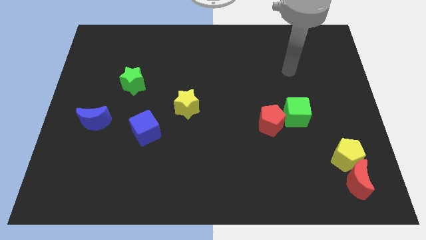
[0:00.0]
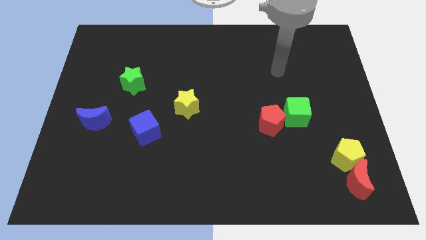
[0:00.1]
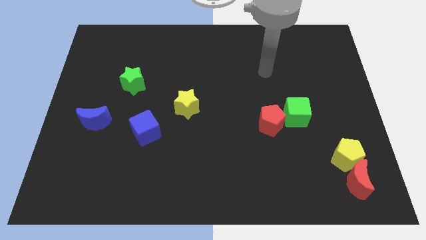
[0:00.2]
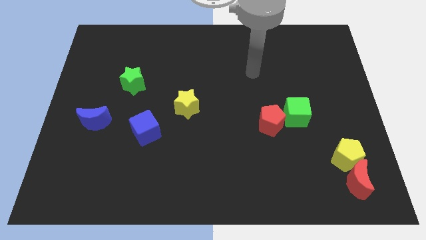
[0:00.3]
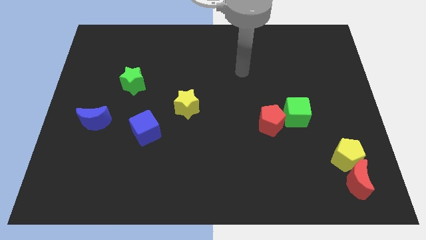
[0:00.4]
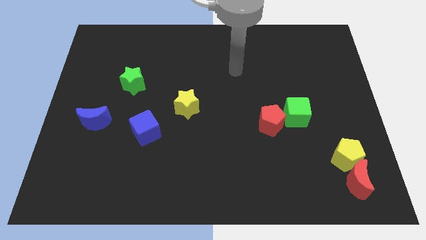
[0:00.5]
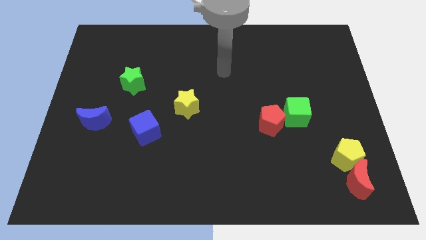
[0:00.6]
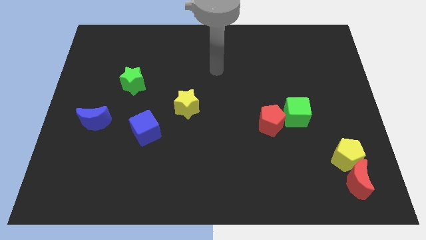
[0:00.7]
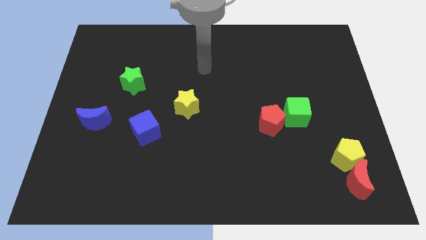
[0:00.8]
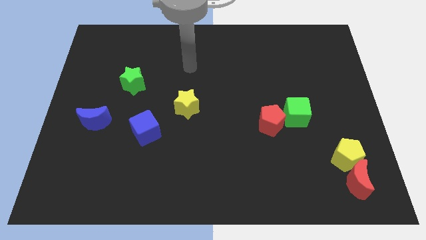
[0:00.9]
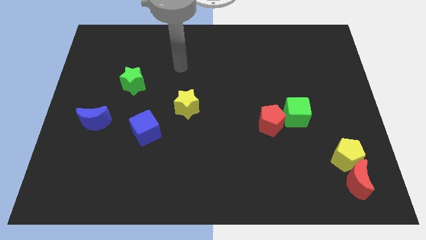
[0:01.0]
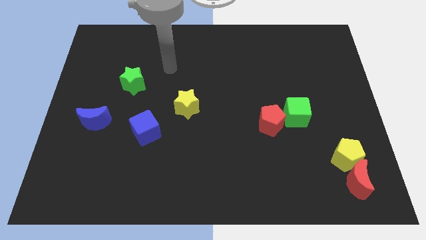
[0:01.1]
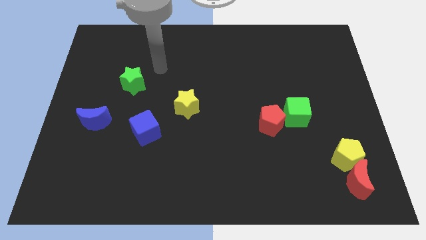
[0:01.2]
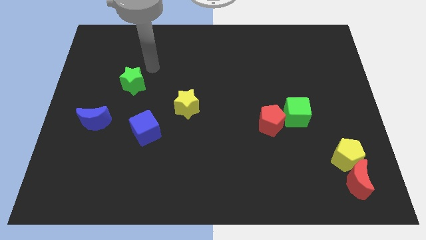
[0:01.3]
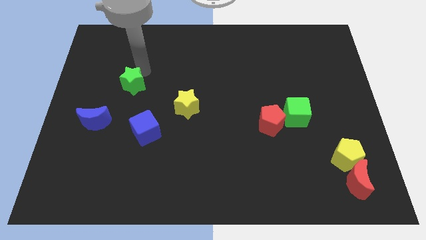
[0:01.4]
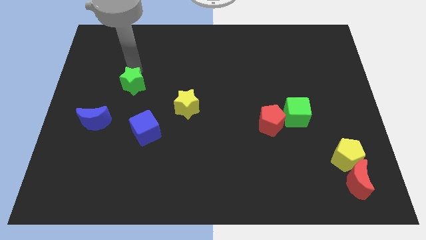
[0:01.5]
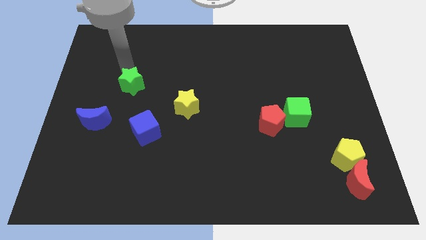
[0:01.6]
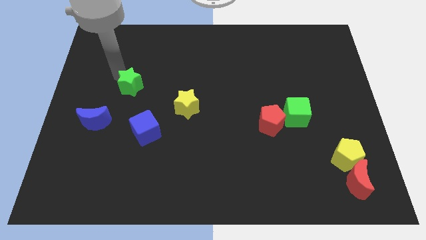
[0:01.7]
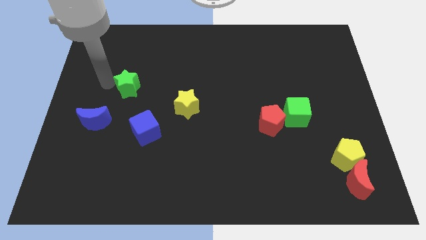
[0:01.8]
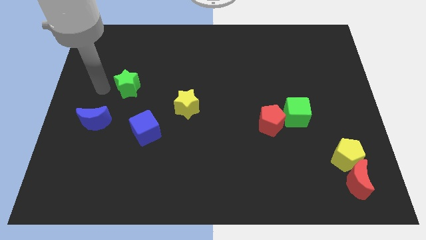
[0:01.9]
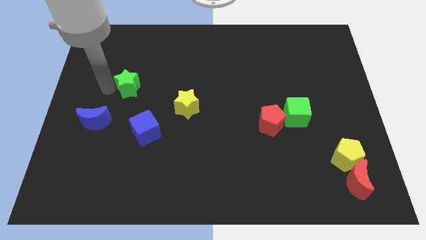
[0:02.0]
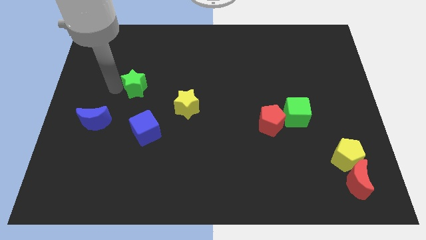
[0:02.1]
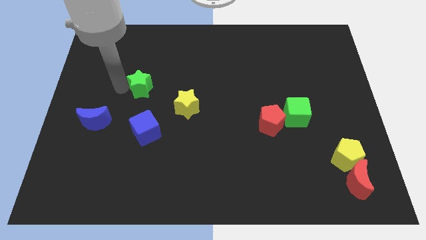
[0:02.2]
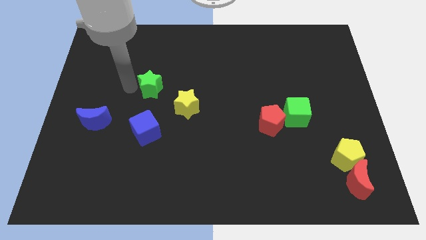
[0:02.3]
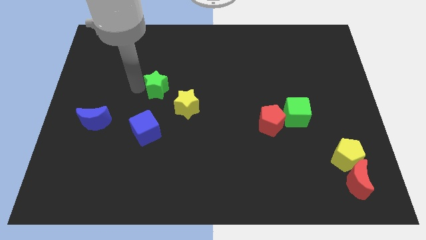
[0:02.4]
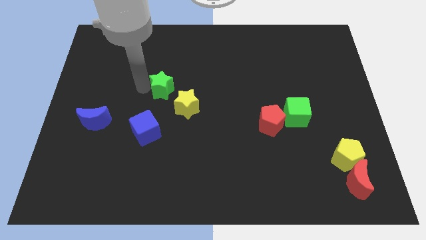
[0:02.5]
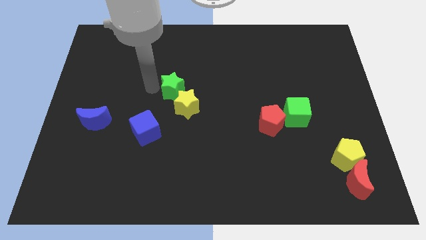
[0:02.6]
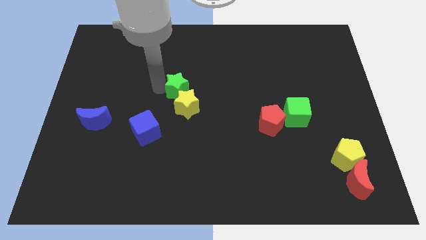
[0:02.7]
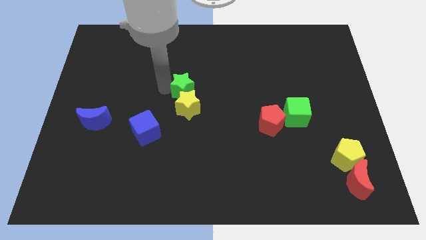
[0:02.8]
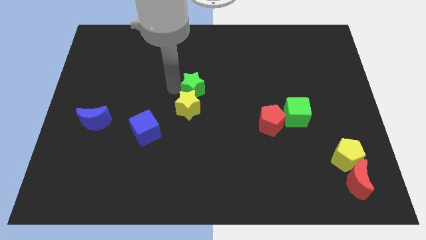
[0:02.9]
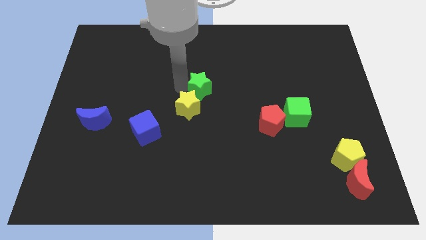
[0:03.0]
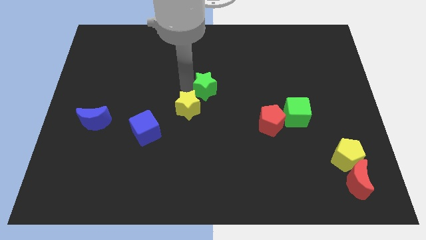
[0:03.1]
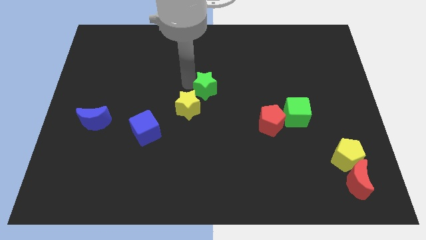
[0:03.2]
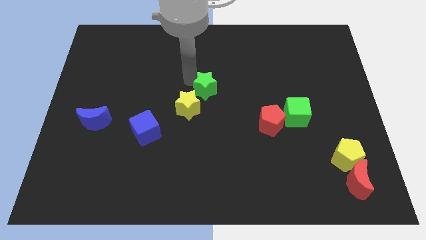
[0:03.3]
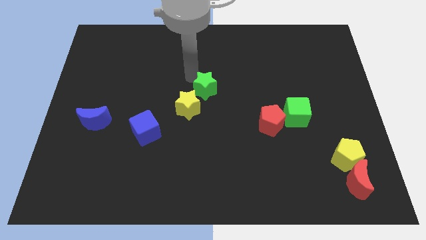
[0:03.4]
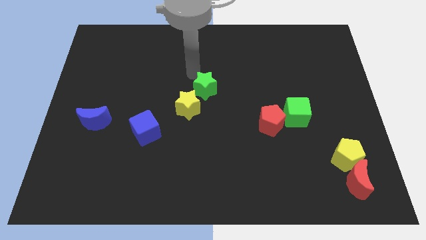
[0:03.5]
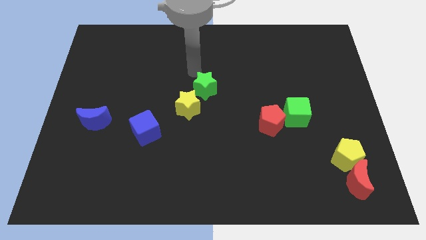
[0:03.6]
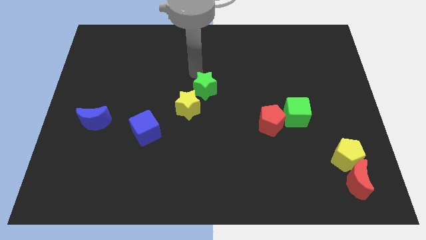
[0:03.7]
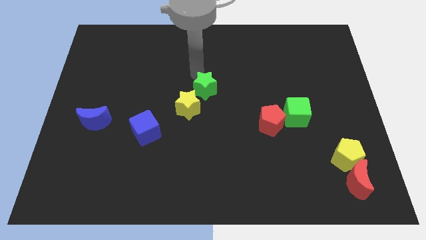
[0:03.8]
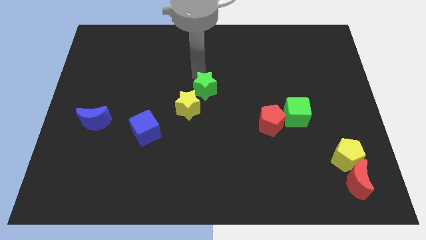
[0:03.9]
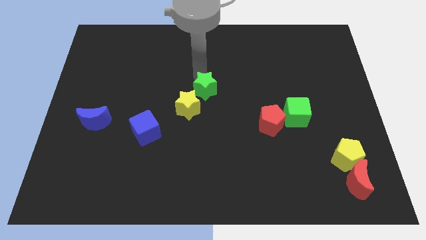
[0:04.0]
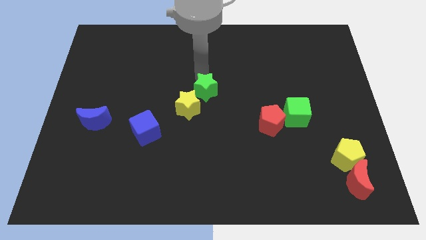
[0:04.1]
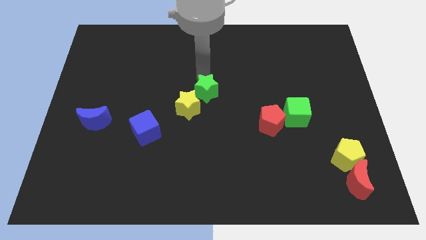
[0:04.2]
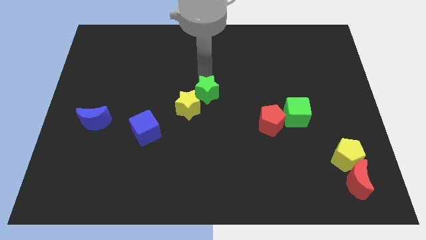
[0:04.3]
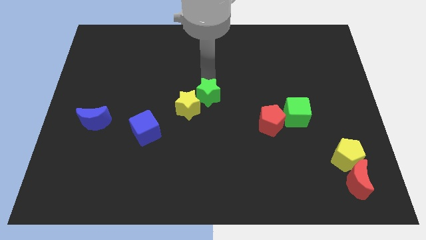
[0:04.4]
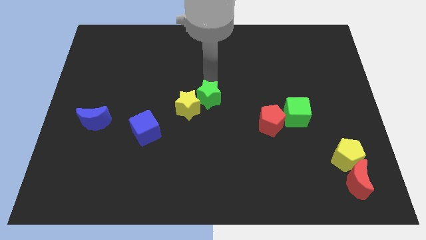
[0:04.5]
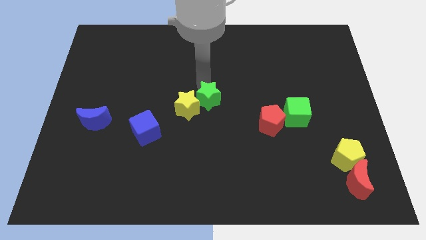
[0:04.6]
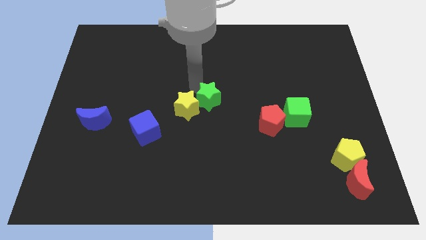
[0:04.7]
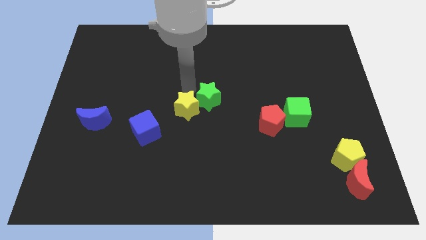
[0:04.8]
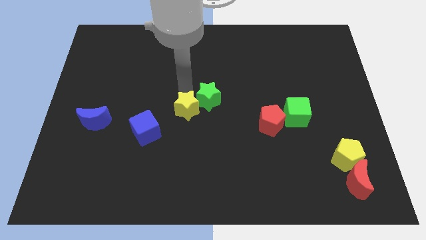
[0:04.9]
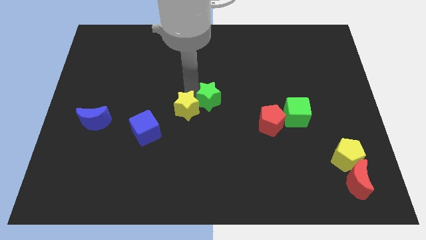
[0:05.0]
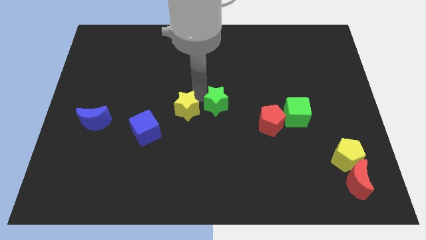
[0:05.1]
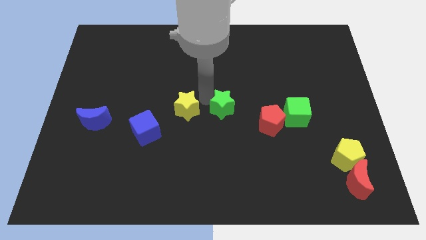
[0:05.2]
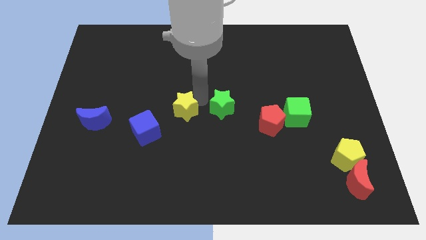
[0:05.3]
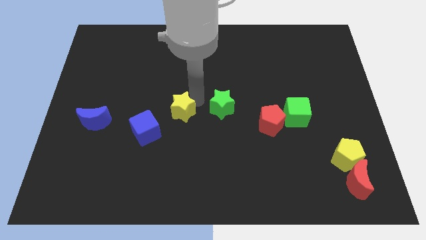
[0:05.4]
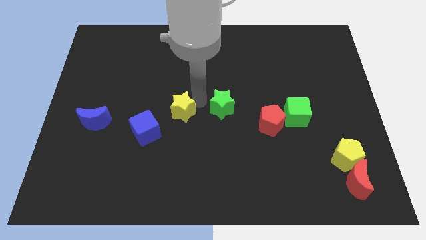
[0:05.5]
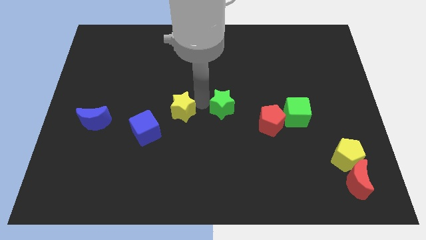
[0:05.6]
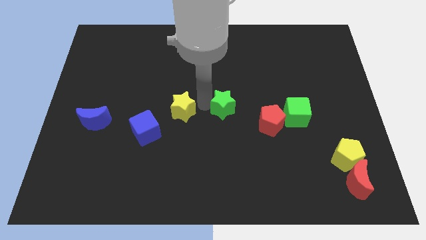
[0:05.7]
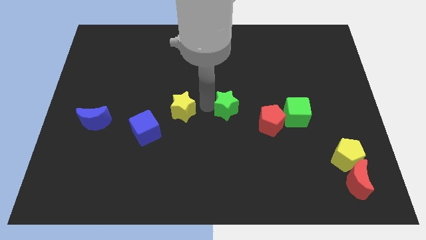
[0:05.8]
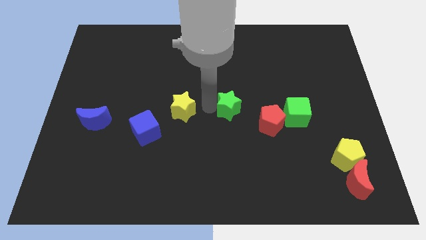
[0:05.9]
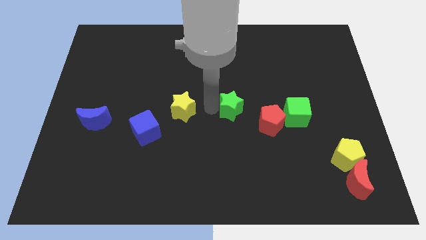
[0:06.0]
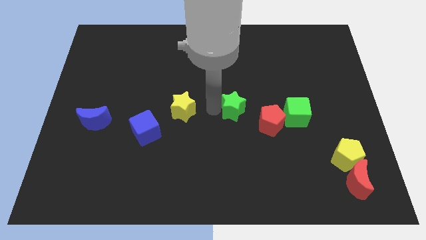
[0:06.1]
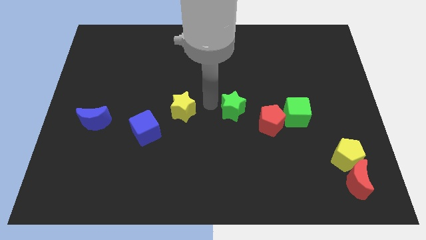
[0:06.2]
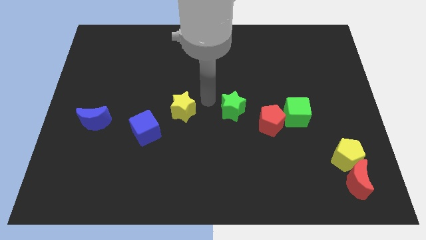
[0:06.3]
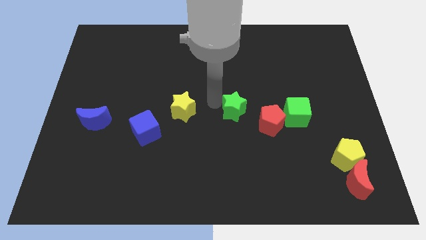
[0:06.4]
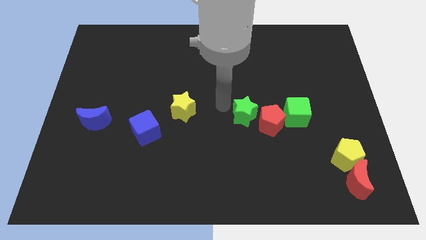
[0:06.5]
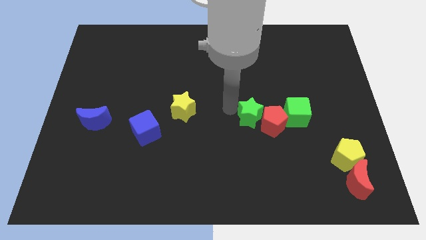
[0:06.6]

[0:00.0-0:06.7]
push the green star to the red pentagon

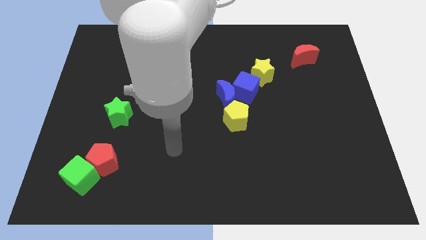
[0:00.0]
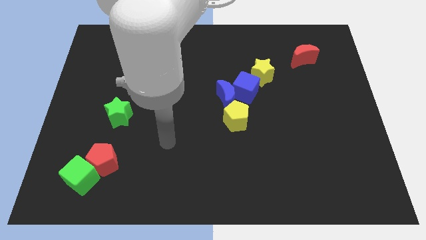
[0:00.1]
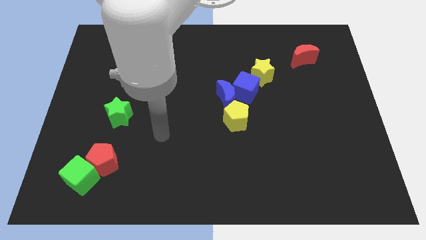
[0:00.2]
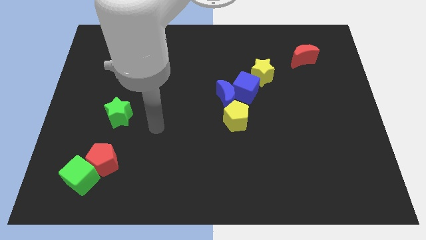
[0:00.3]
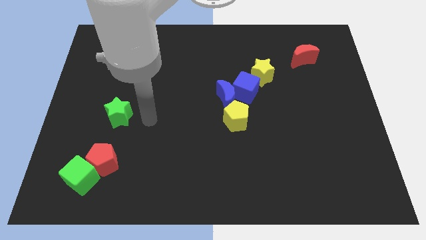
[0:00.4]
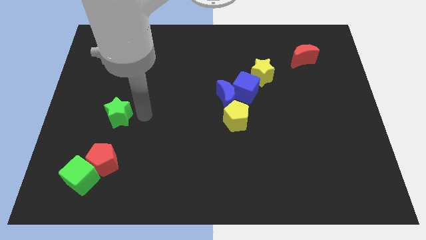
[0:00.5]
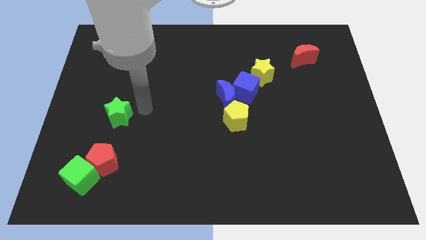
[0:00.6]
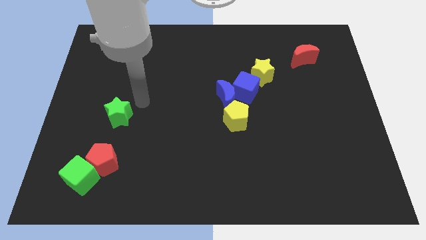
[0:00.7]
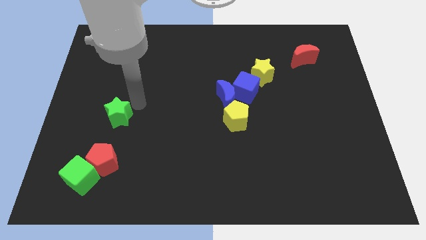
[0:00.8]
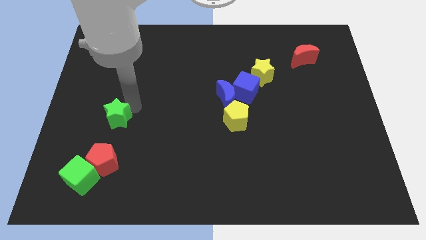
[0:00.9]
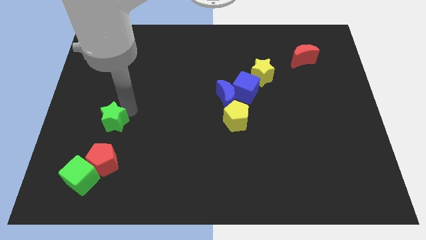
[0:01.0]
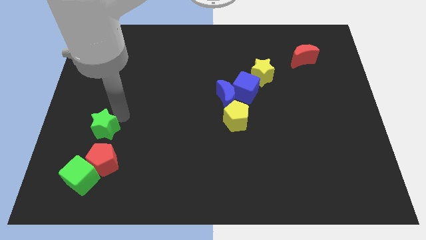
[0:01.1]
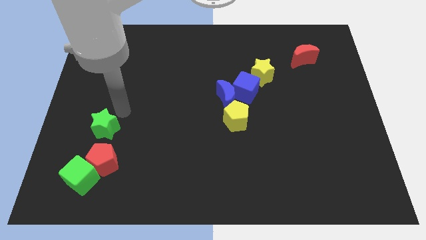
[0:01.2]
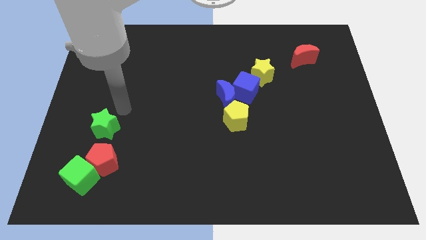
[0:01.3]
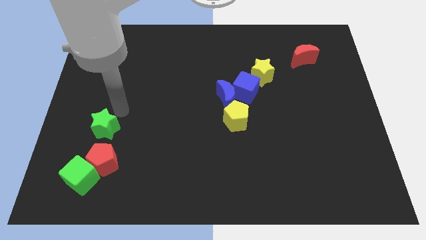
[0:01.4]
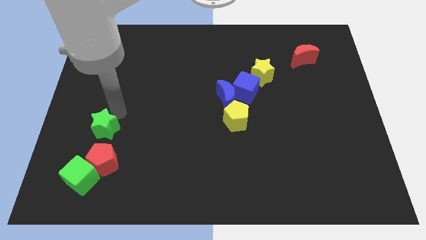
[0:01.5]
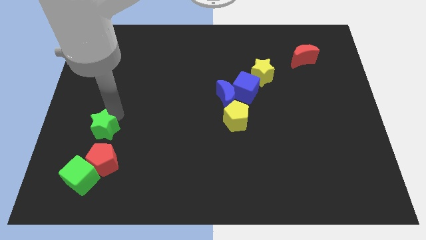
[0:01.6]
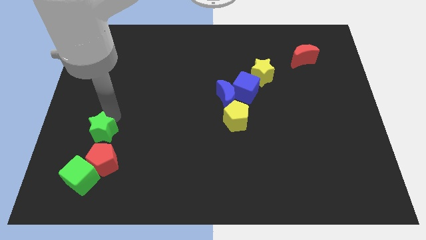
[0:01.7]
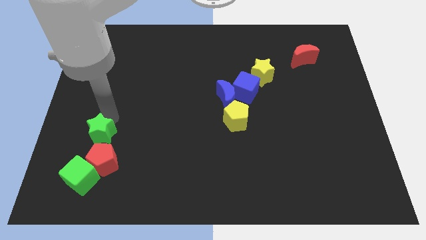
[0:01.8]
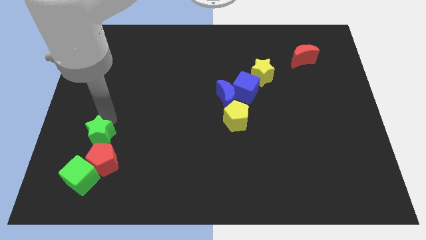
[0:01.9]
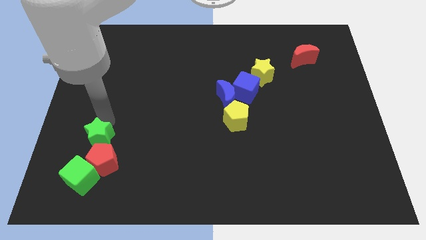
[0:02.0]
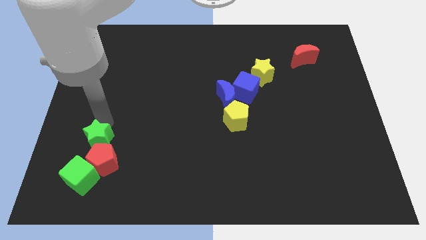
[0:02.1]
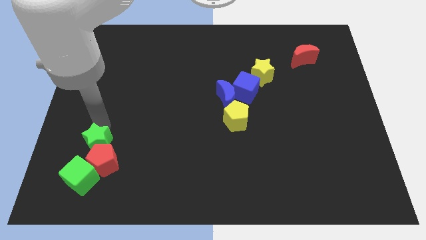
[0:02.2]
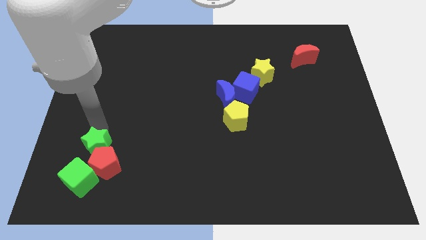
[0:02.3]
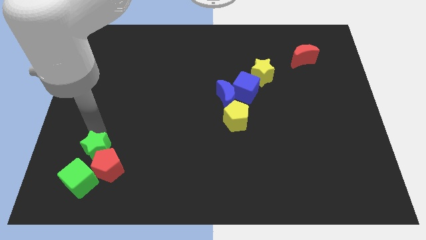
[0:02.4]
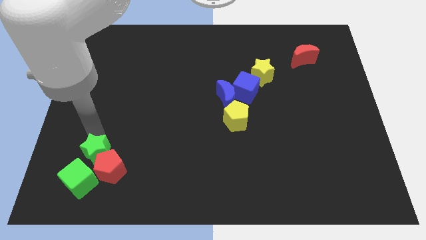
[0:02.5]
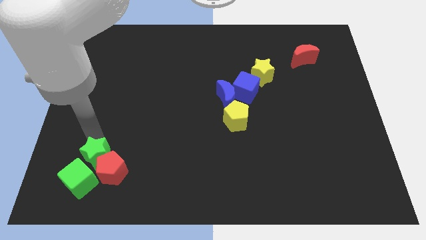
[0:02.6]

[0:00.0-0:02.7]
push the green star towards the green cube
